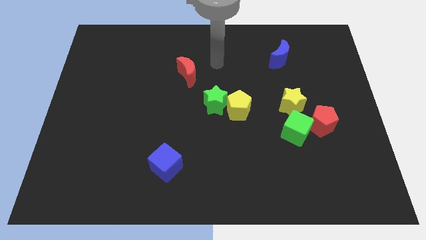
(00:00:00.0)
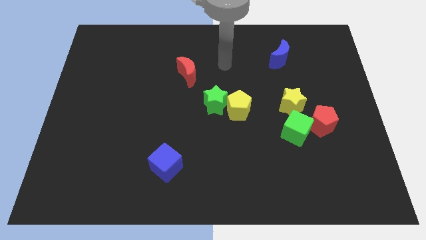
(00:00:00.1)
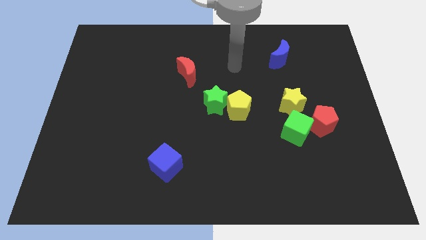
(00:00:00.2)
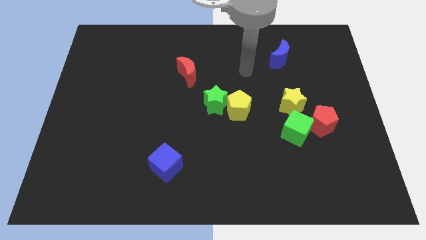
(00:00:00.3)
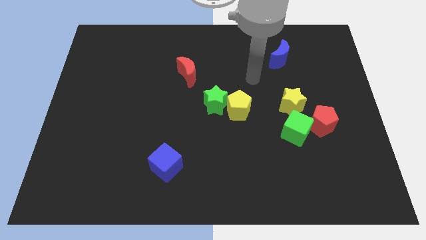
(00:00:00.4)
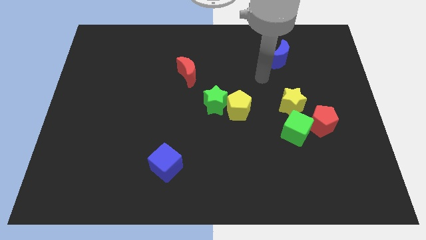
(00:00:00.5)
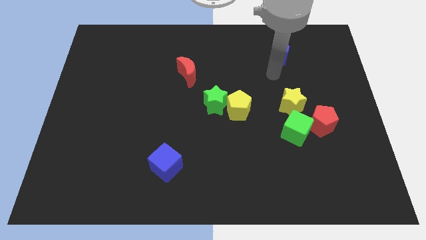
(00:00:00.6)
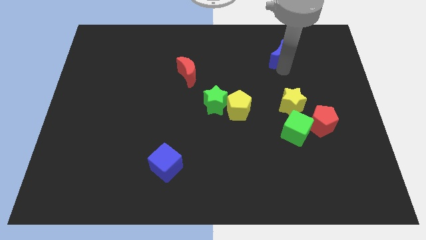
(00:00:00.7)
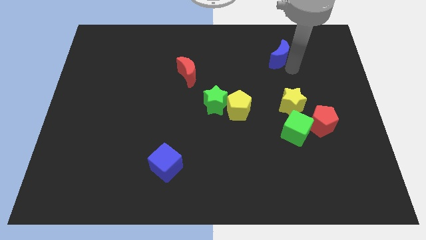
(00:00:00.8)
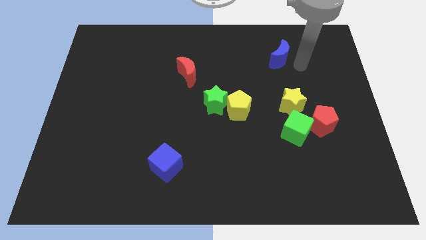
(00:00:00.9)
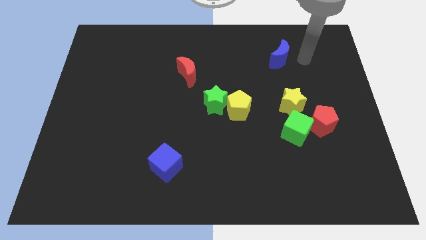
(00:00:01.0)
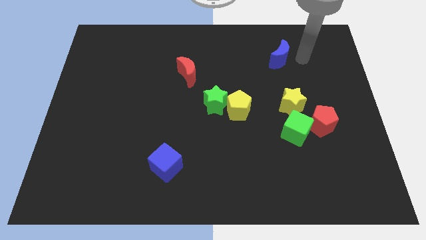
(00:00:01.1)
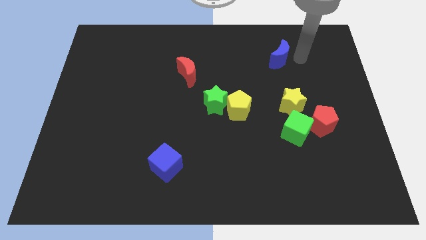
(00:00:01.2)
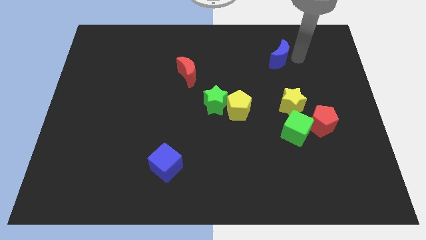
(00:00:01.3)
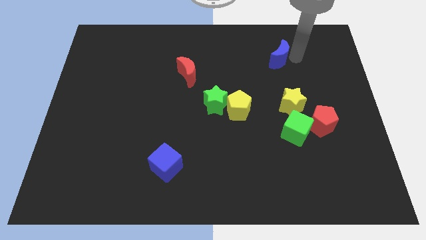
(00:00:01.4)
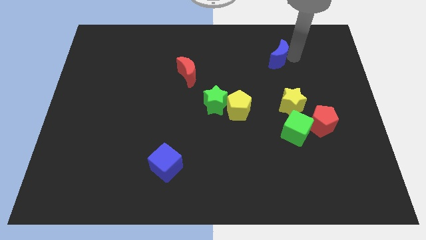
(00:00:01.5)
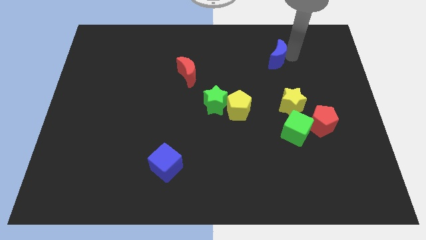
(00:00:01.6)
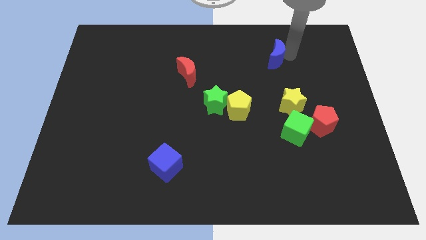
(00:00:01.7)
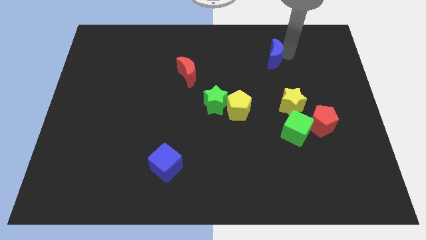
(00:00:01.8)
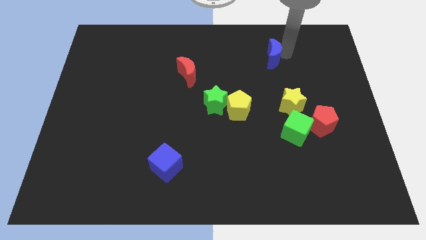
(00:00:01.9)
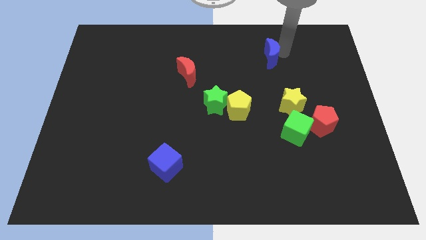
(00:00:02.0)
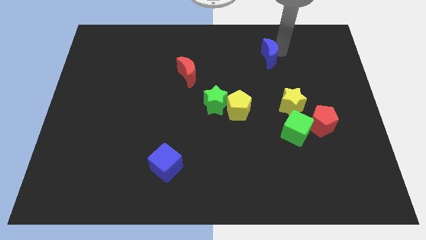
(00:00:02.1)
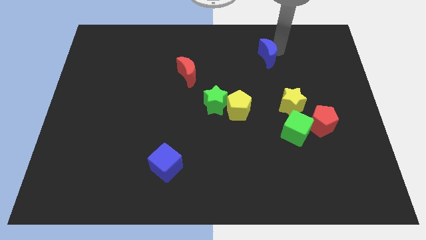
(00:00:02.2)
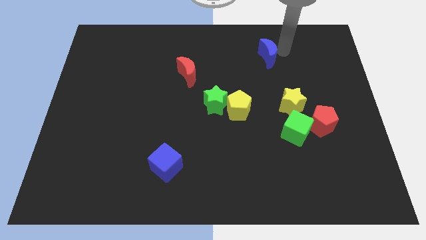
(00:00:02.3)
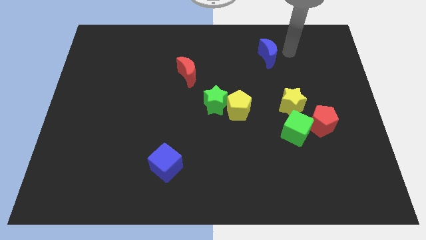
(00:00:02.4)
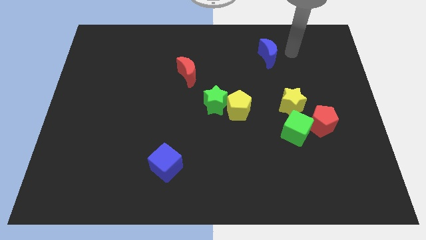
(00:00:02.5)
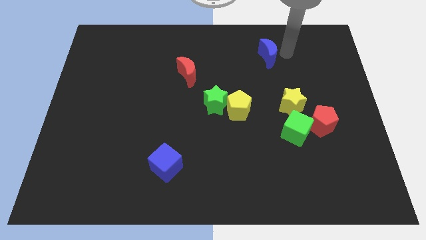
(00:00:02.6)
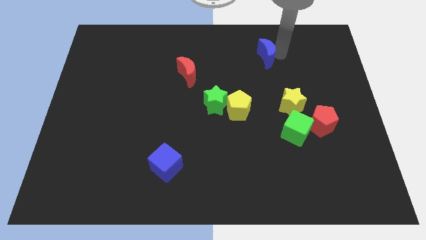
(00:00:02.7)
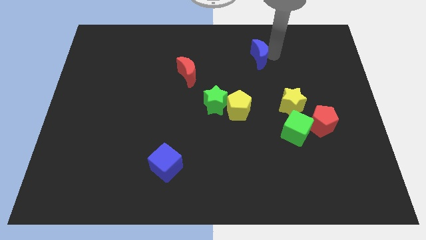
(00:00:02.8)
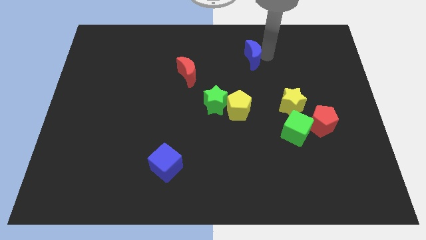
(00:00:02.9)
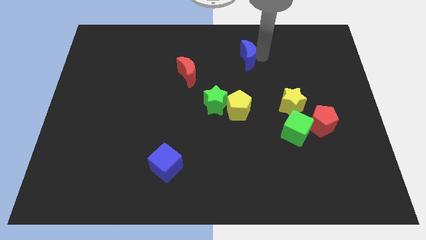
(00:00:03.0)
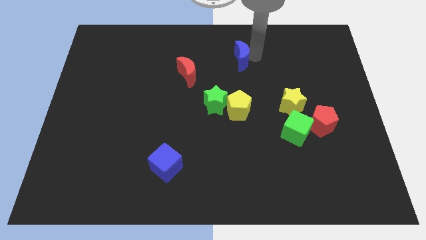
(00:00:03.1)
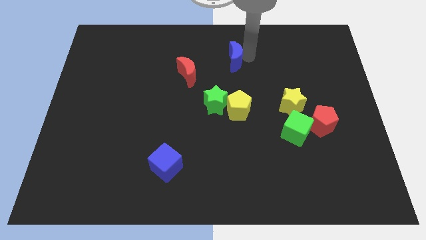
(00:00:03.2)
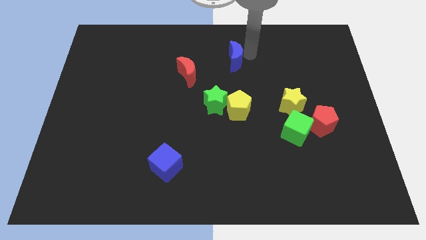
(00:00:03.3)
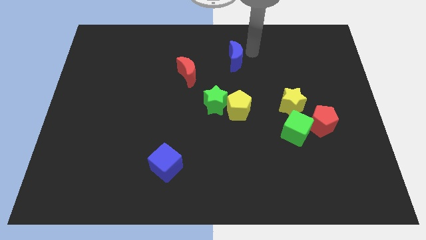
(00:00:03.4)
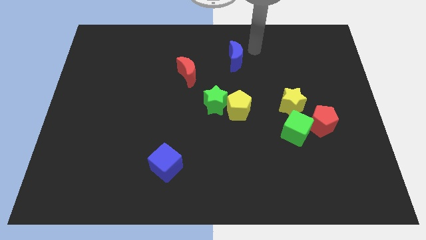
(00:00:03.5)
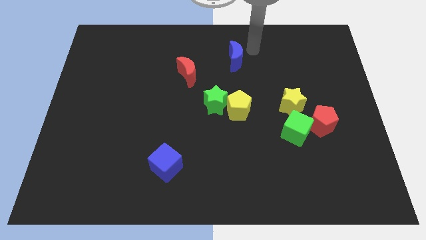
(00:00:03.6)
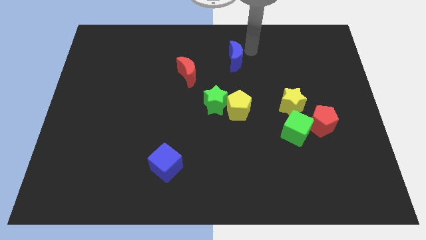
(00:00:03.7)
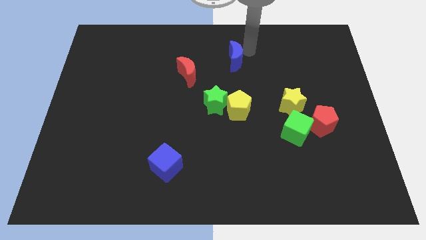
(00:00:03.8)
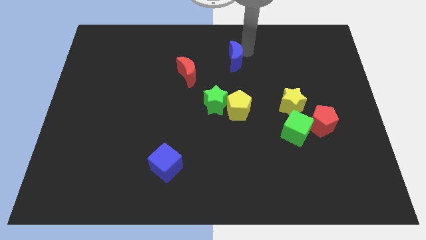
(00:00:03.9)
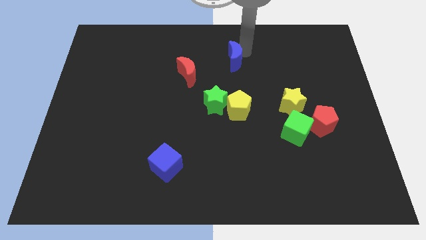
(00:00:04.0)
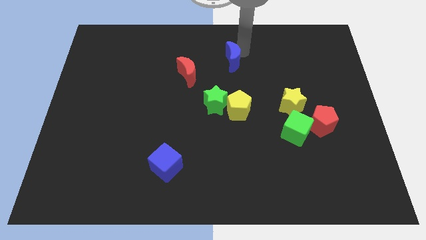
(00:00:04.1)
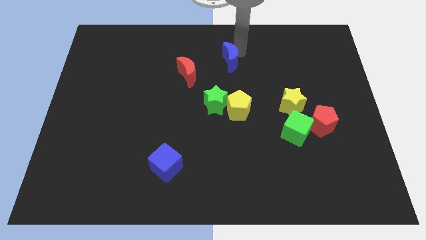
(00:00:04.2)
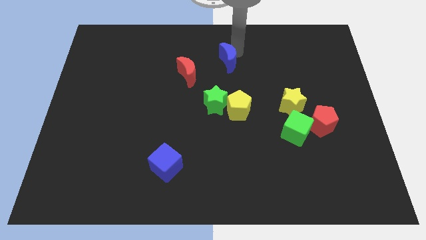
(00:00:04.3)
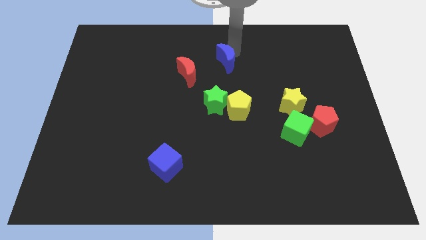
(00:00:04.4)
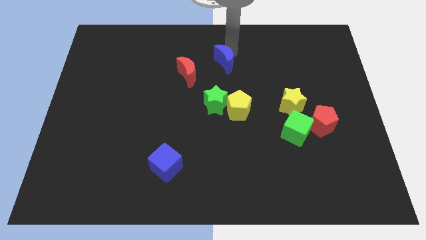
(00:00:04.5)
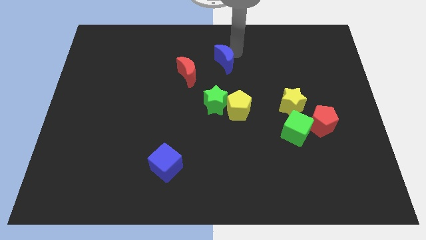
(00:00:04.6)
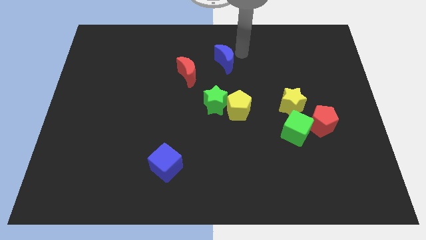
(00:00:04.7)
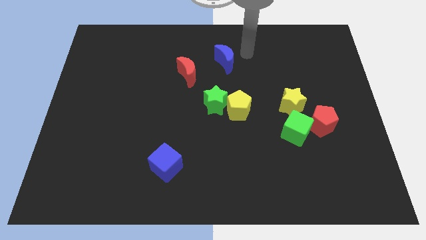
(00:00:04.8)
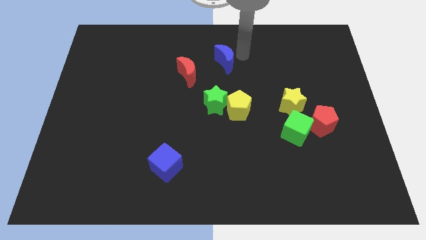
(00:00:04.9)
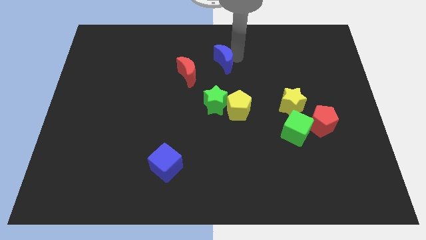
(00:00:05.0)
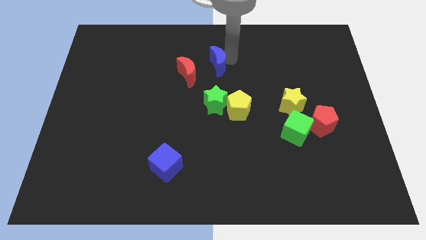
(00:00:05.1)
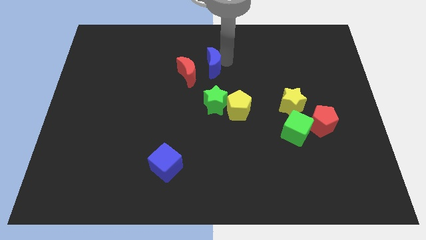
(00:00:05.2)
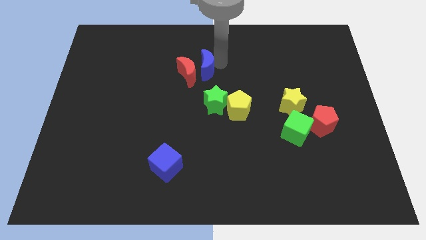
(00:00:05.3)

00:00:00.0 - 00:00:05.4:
slide the blue moon towards the red moon

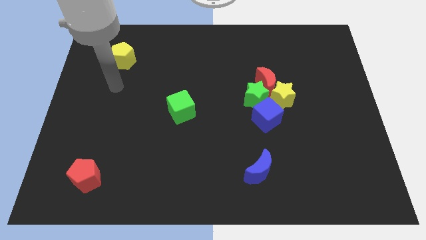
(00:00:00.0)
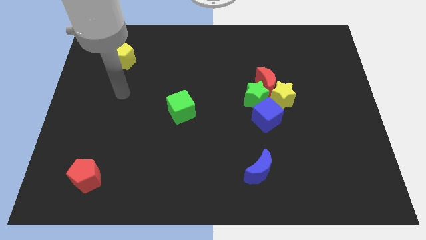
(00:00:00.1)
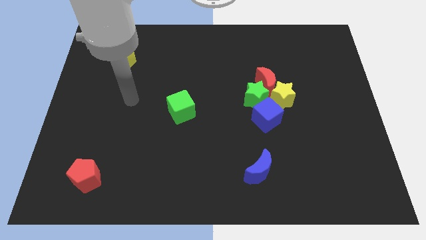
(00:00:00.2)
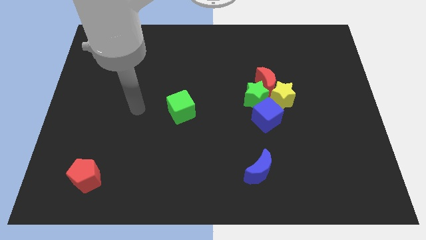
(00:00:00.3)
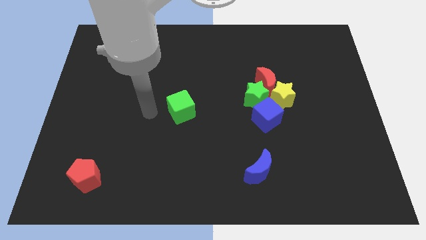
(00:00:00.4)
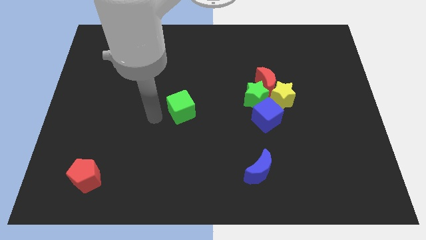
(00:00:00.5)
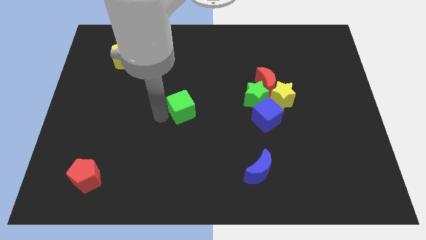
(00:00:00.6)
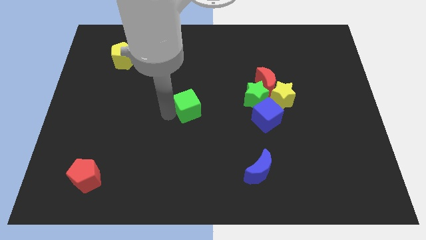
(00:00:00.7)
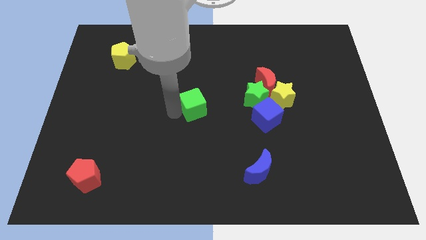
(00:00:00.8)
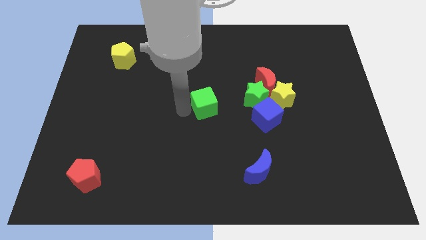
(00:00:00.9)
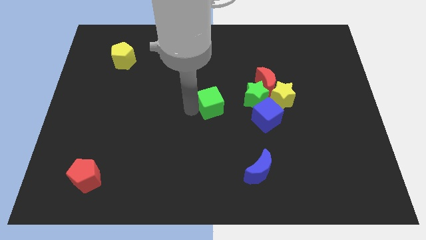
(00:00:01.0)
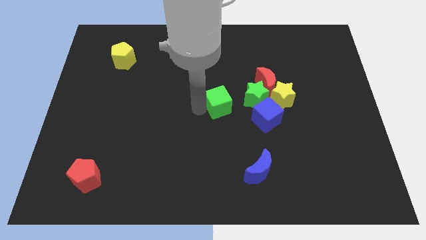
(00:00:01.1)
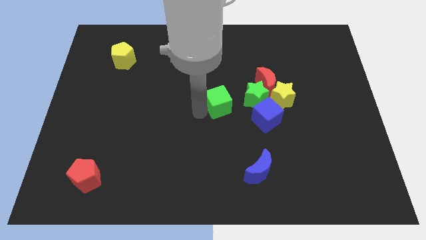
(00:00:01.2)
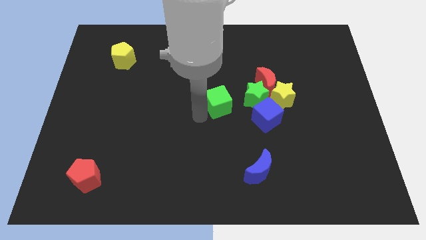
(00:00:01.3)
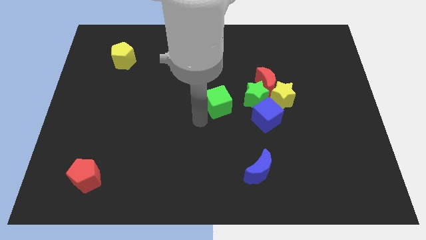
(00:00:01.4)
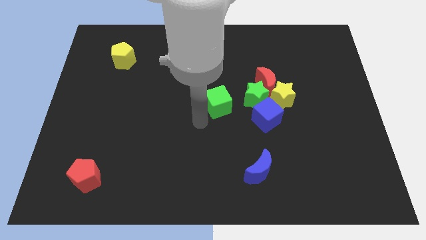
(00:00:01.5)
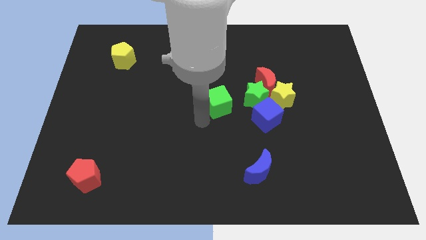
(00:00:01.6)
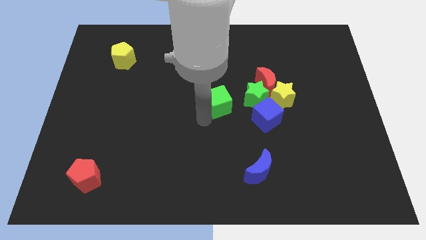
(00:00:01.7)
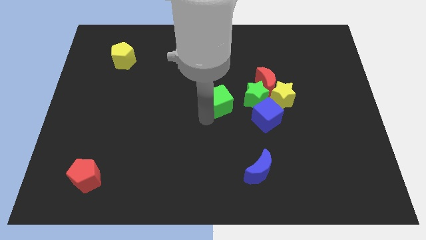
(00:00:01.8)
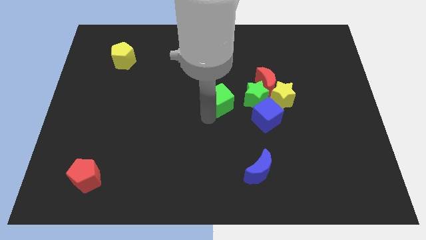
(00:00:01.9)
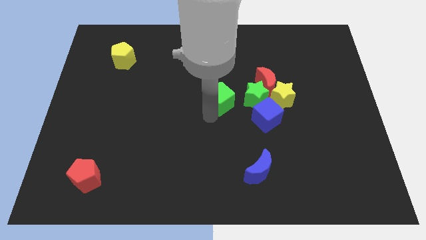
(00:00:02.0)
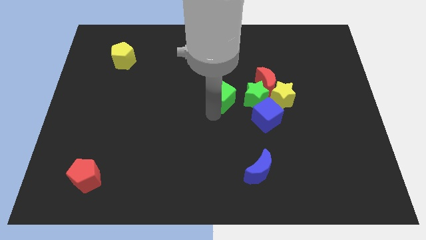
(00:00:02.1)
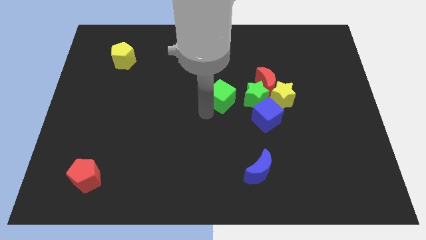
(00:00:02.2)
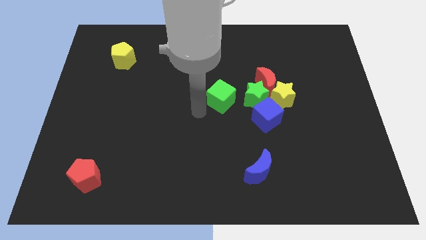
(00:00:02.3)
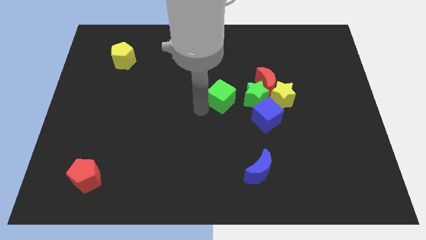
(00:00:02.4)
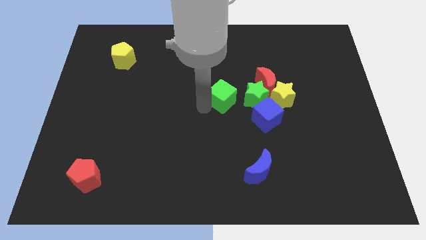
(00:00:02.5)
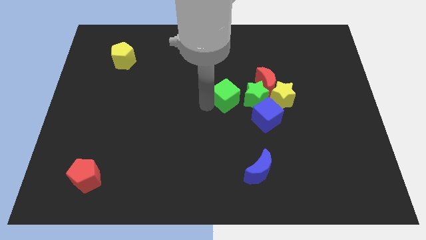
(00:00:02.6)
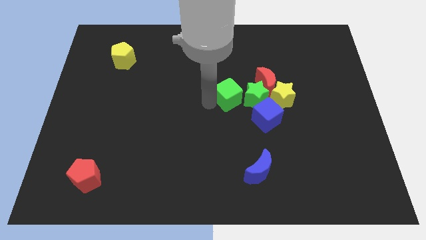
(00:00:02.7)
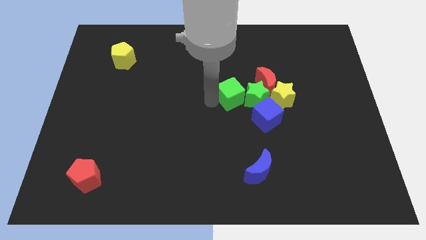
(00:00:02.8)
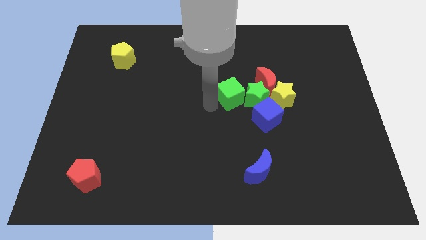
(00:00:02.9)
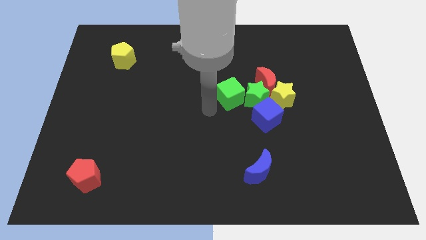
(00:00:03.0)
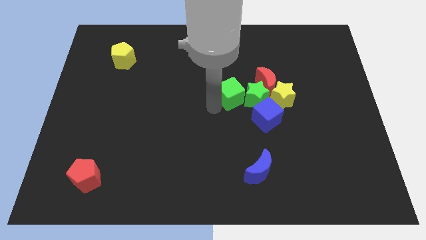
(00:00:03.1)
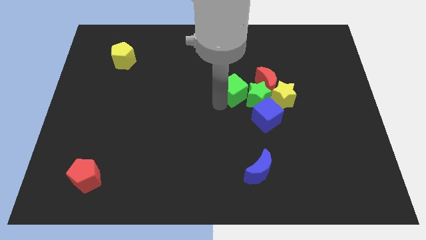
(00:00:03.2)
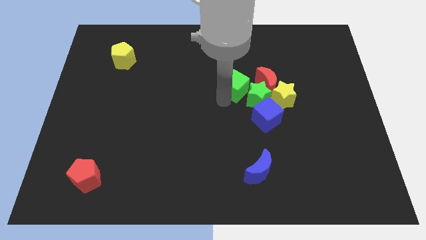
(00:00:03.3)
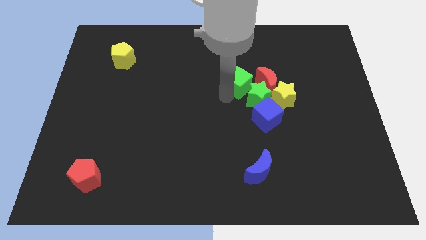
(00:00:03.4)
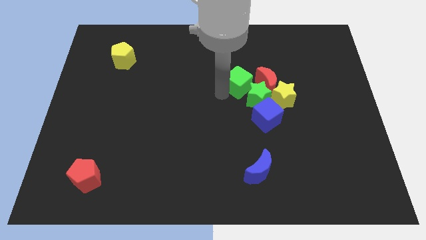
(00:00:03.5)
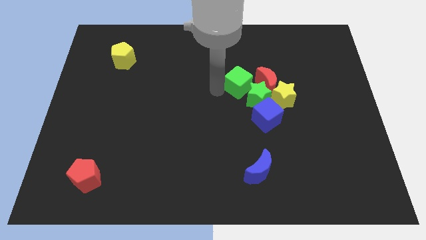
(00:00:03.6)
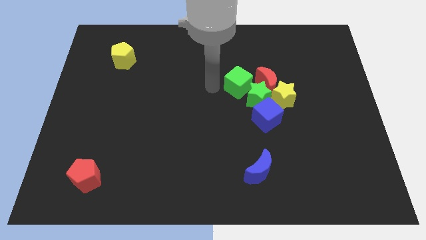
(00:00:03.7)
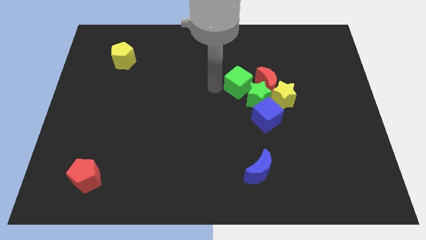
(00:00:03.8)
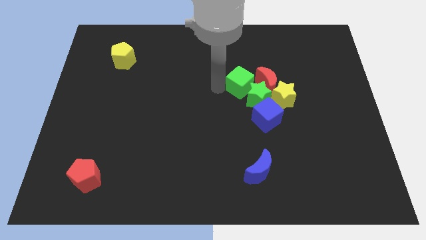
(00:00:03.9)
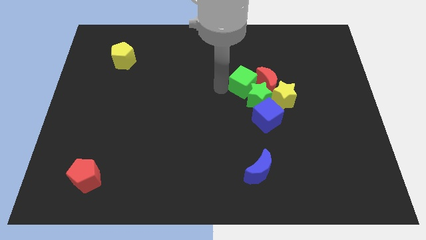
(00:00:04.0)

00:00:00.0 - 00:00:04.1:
push the green cube close to the red moon
